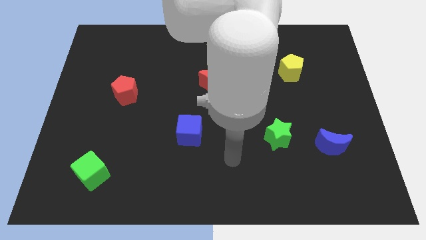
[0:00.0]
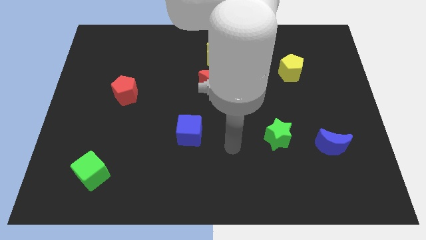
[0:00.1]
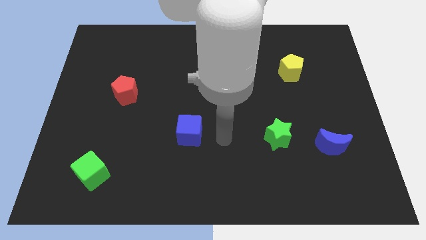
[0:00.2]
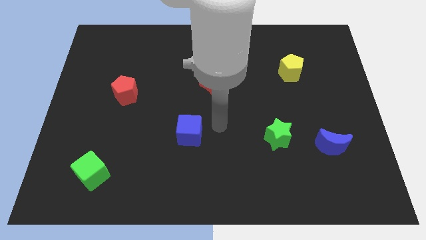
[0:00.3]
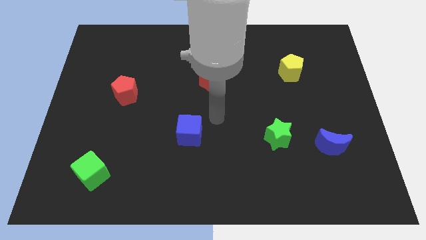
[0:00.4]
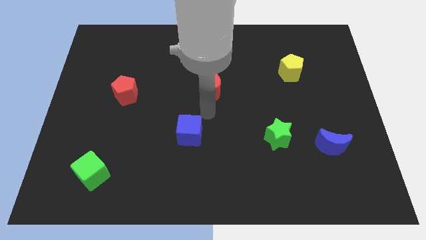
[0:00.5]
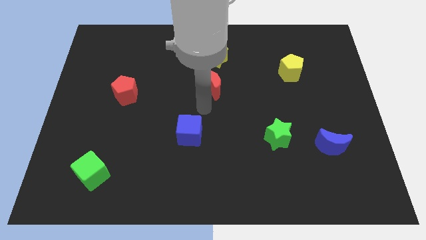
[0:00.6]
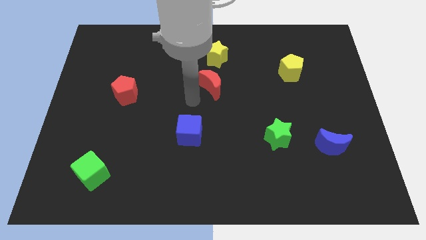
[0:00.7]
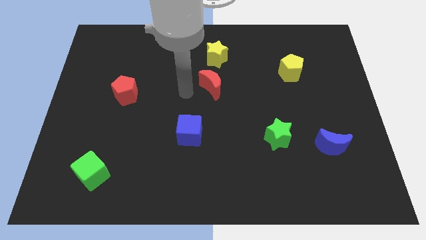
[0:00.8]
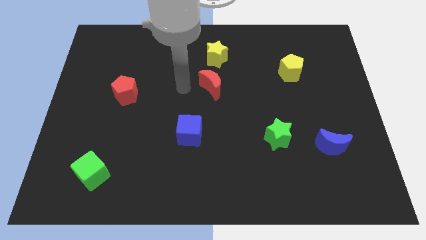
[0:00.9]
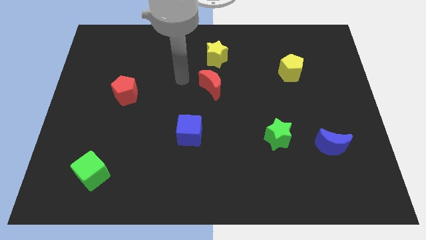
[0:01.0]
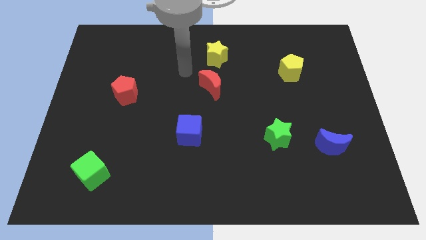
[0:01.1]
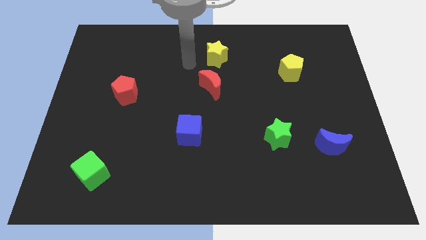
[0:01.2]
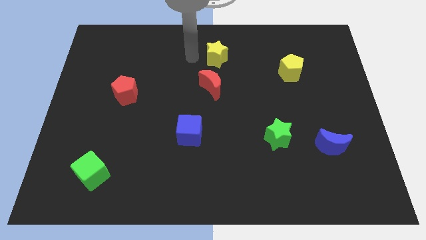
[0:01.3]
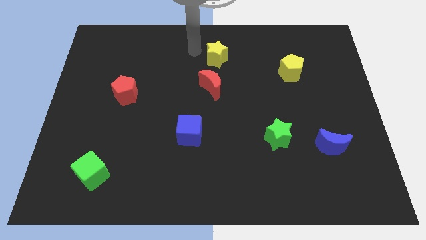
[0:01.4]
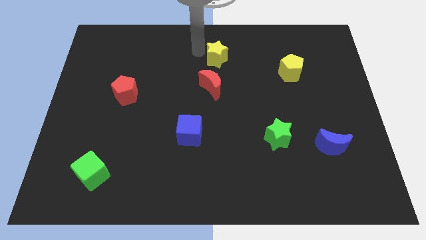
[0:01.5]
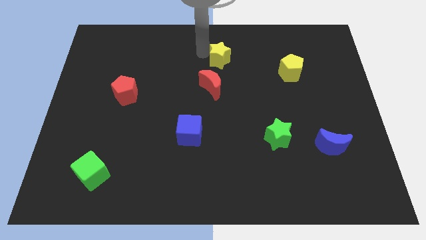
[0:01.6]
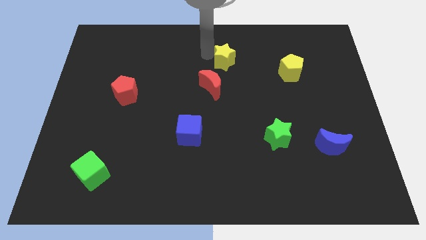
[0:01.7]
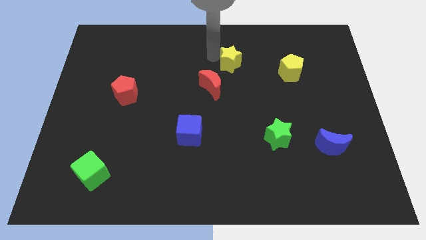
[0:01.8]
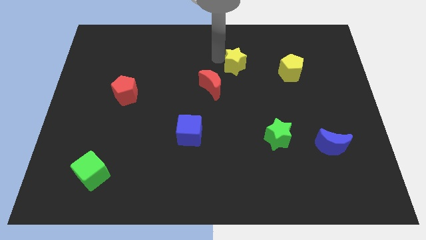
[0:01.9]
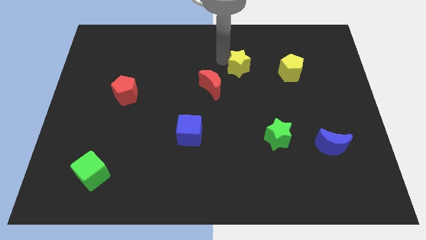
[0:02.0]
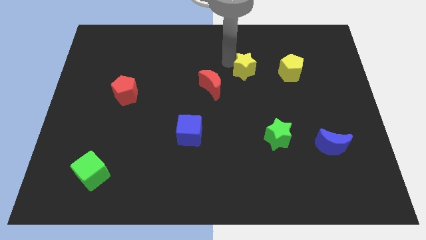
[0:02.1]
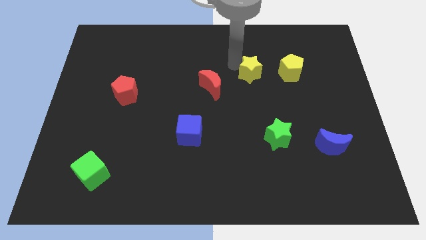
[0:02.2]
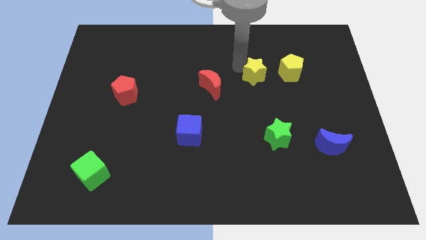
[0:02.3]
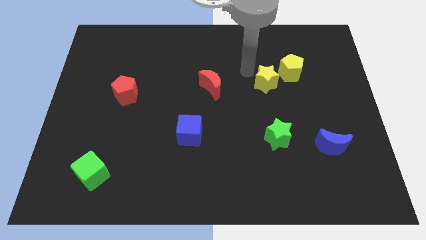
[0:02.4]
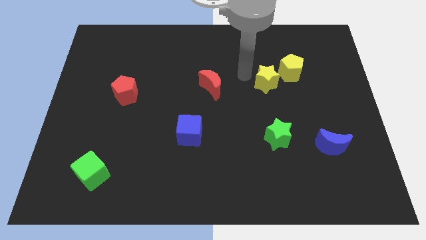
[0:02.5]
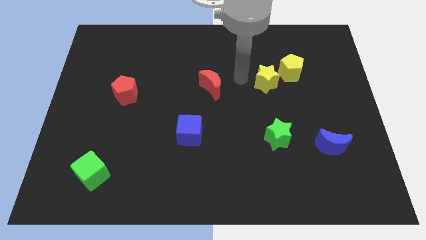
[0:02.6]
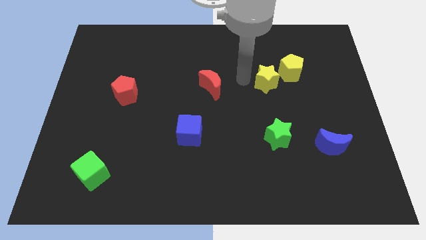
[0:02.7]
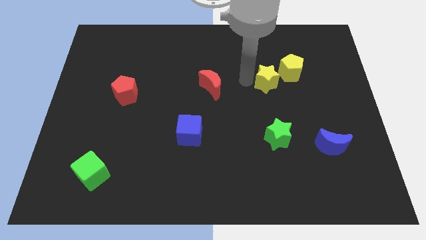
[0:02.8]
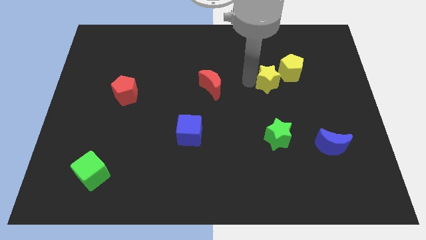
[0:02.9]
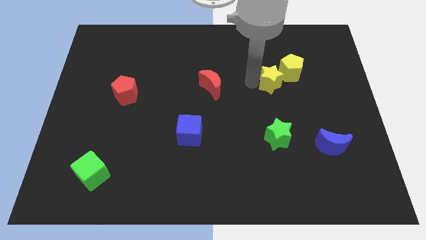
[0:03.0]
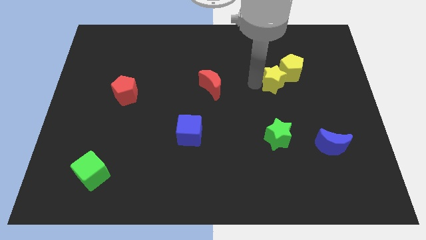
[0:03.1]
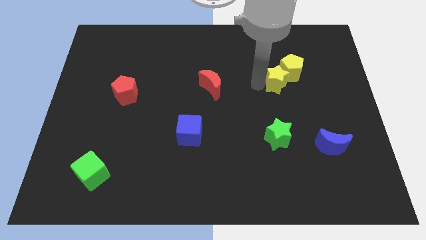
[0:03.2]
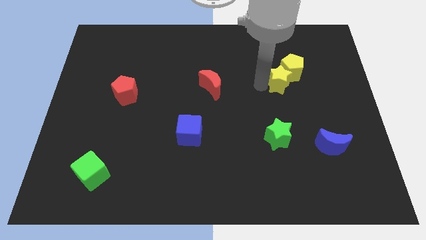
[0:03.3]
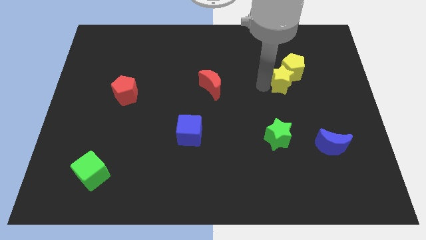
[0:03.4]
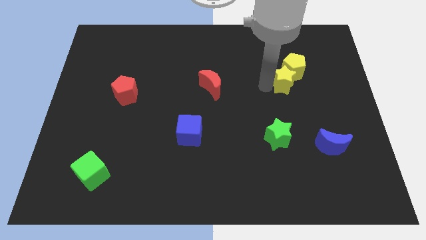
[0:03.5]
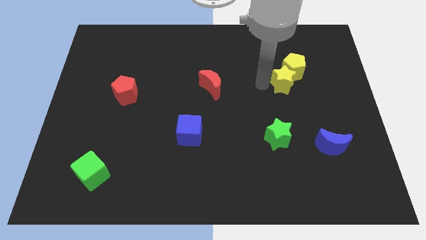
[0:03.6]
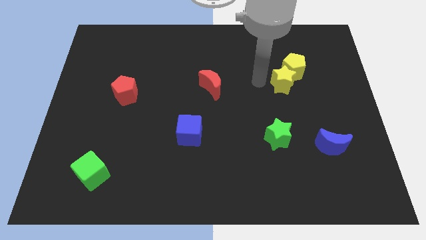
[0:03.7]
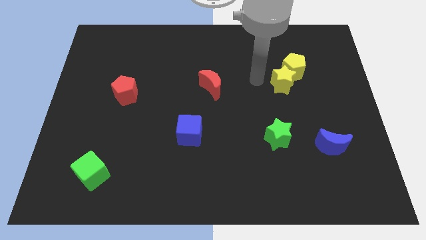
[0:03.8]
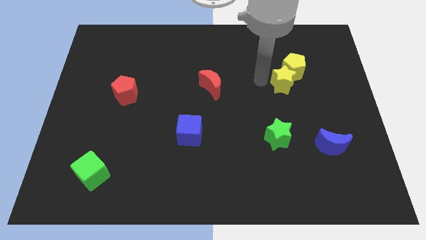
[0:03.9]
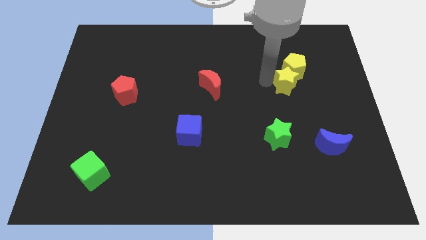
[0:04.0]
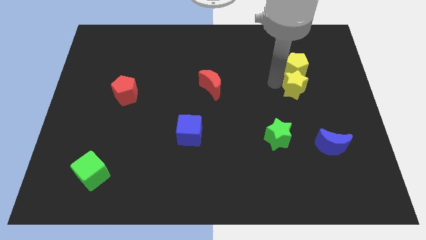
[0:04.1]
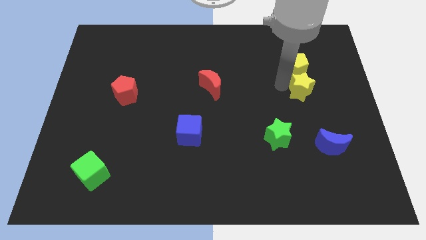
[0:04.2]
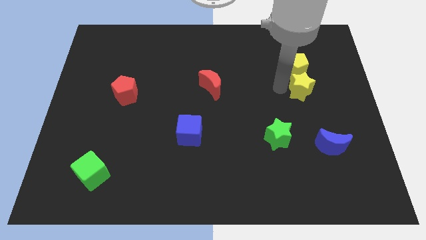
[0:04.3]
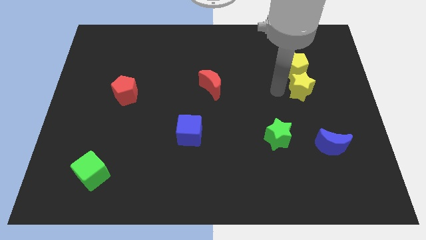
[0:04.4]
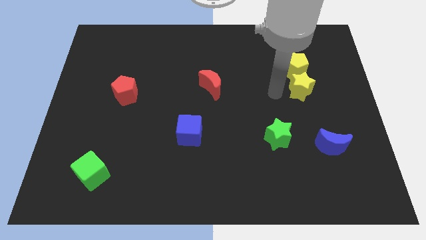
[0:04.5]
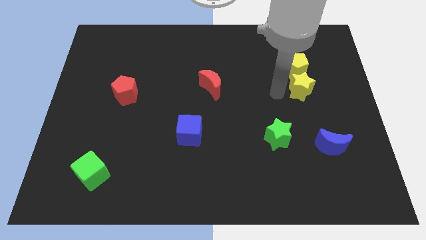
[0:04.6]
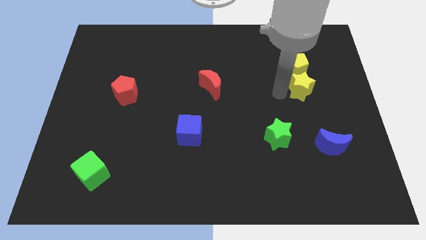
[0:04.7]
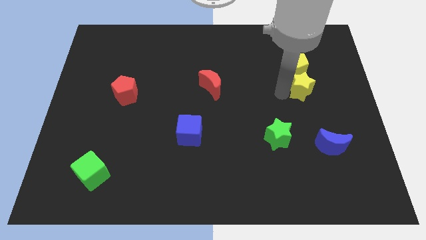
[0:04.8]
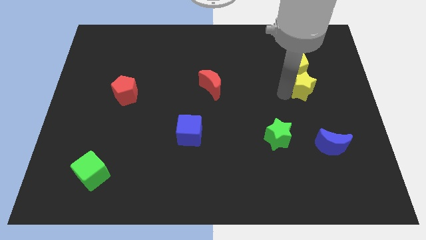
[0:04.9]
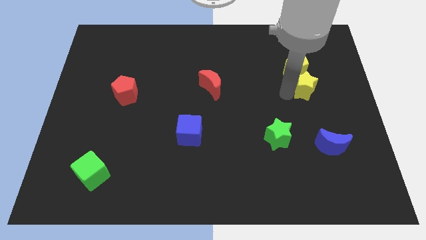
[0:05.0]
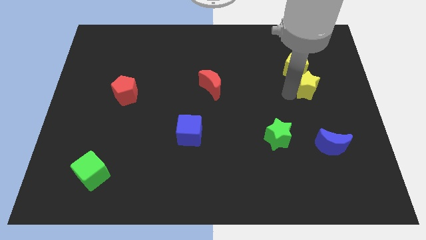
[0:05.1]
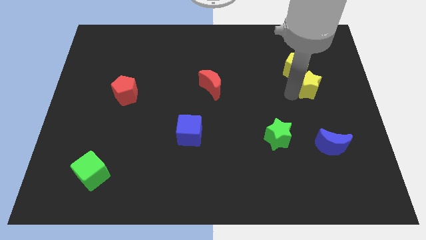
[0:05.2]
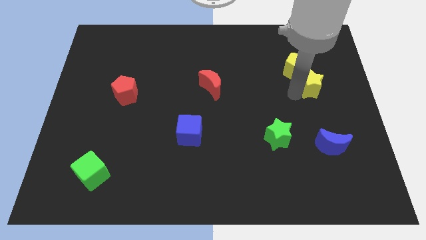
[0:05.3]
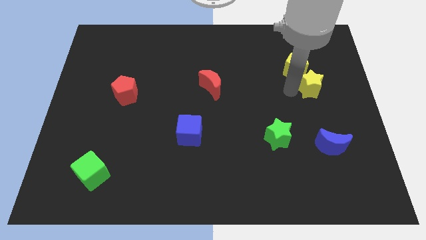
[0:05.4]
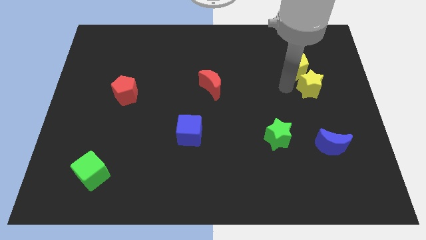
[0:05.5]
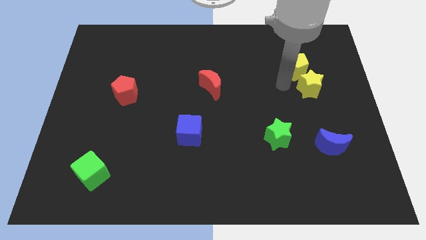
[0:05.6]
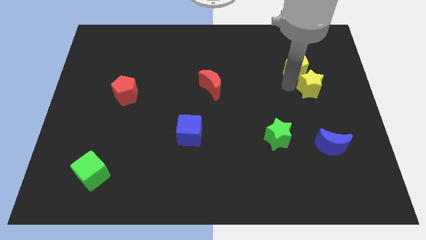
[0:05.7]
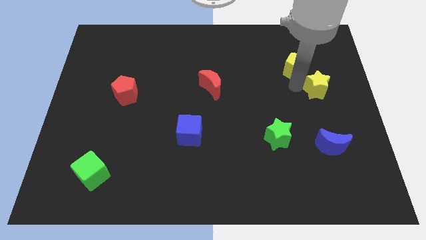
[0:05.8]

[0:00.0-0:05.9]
put the yellow star to the right side of the board

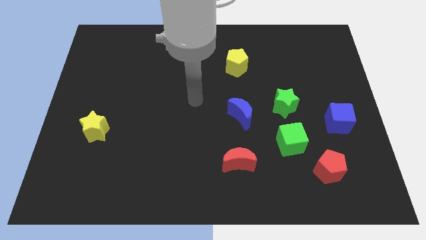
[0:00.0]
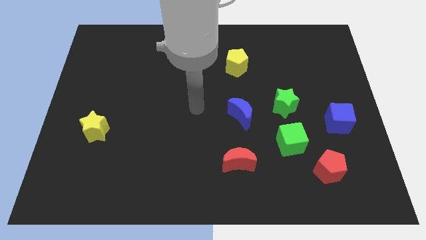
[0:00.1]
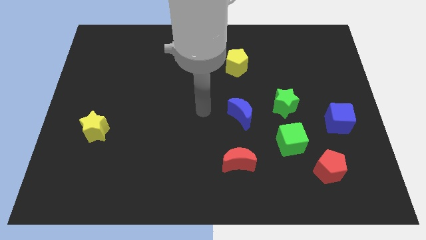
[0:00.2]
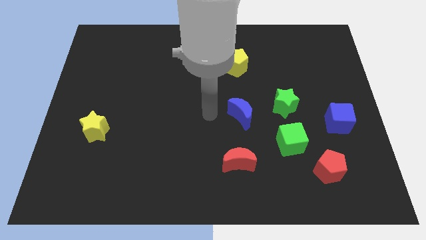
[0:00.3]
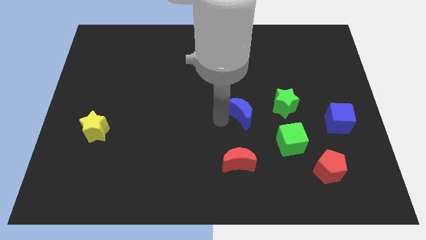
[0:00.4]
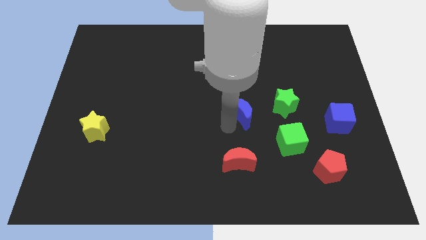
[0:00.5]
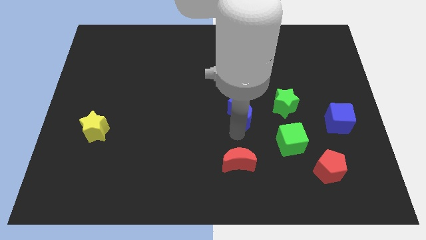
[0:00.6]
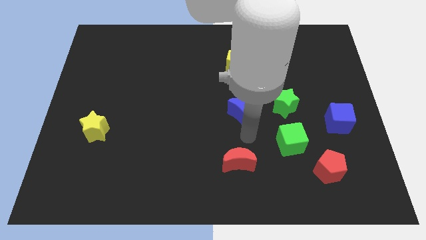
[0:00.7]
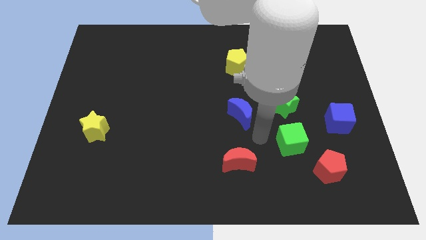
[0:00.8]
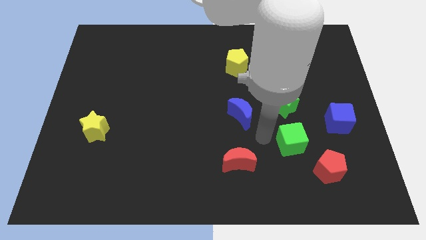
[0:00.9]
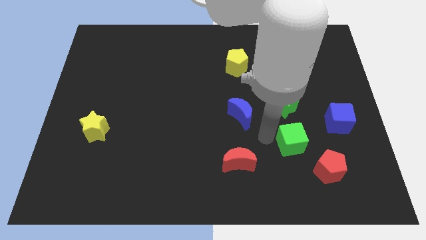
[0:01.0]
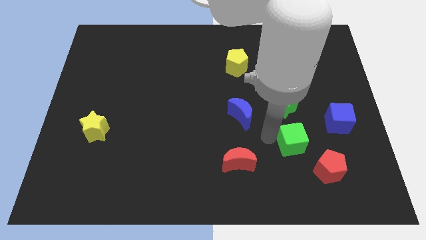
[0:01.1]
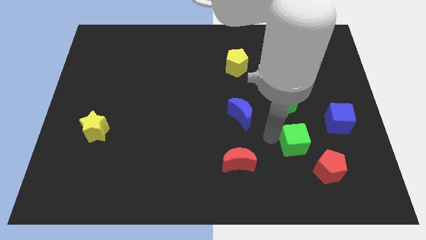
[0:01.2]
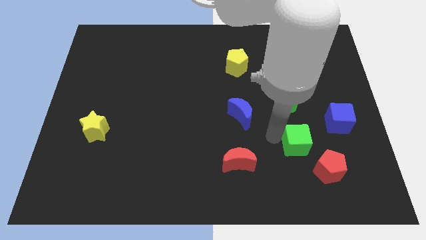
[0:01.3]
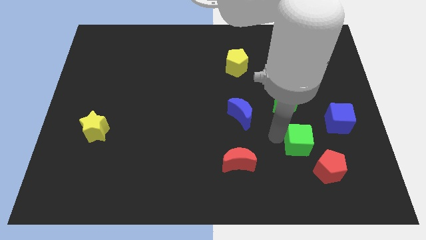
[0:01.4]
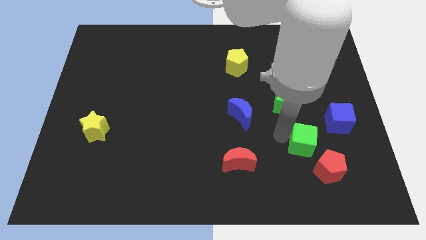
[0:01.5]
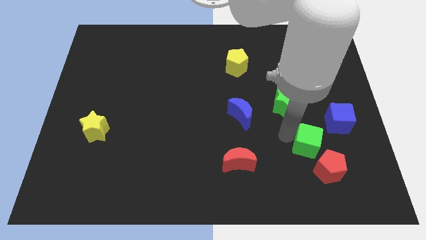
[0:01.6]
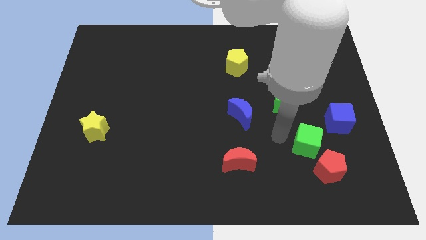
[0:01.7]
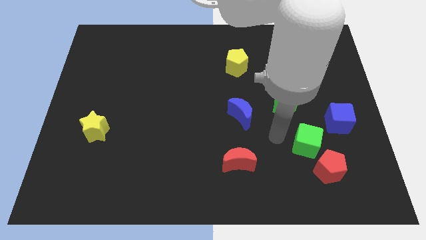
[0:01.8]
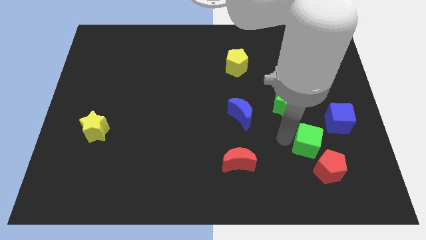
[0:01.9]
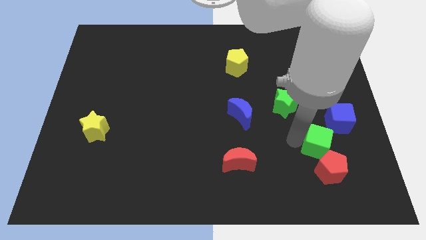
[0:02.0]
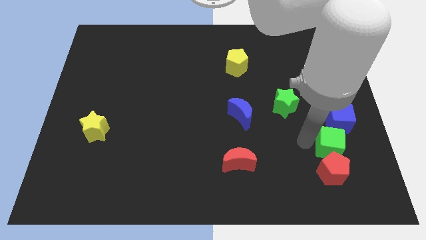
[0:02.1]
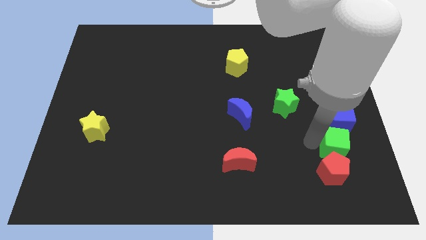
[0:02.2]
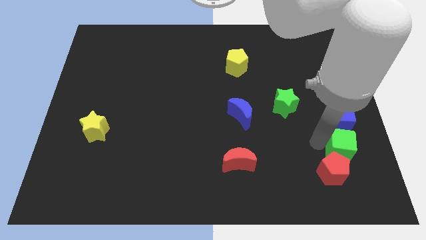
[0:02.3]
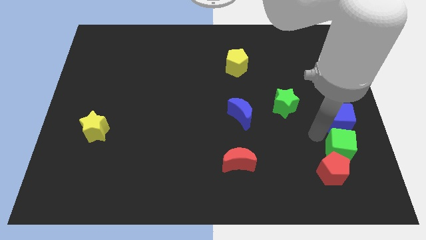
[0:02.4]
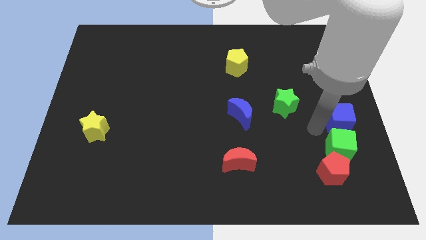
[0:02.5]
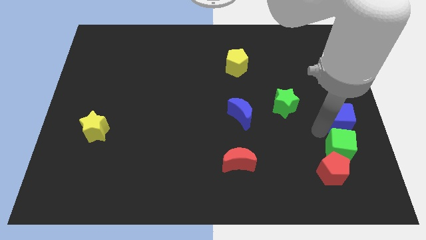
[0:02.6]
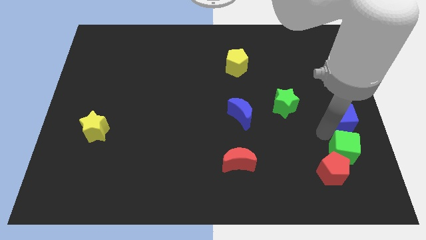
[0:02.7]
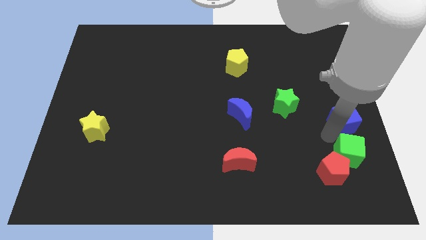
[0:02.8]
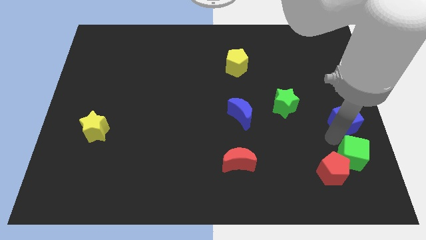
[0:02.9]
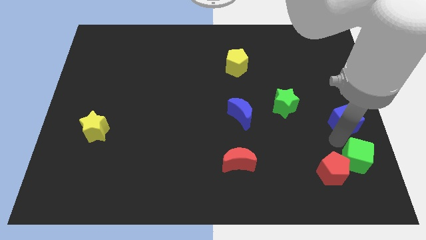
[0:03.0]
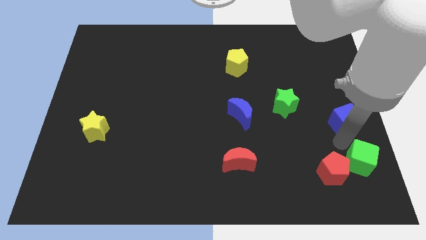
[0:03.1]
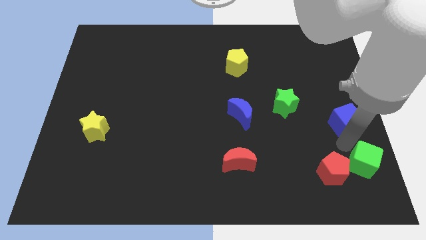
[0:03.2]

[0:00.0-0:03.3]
slide the green cube to the bottom right corner
